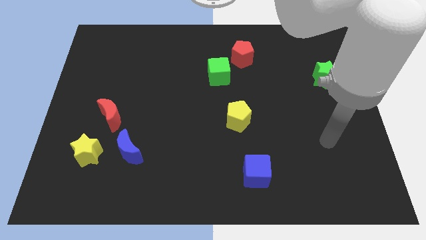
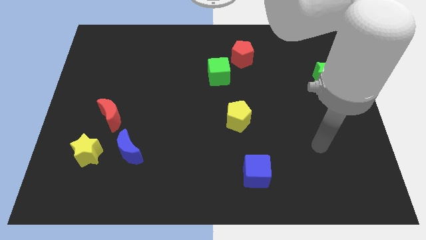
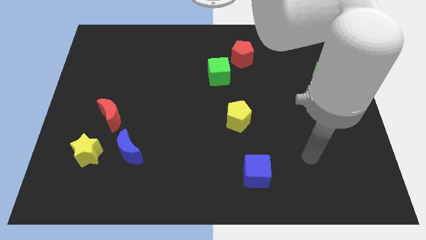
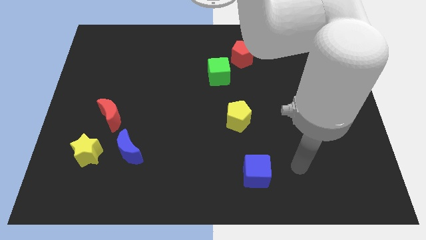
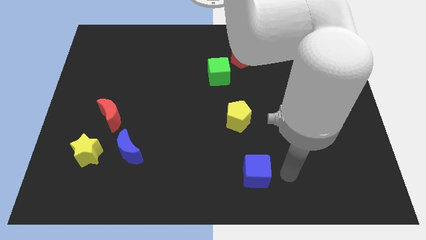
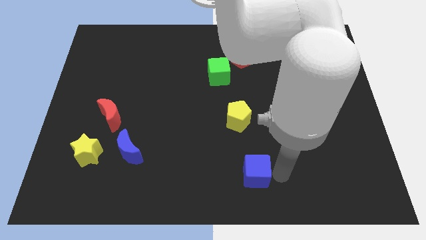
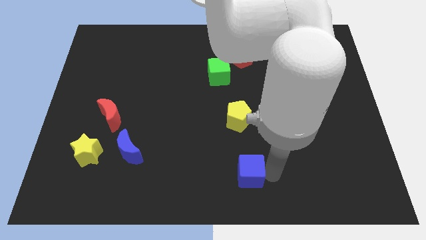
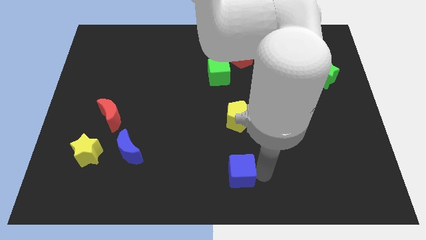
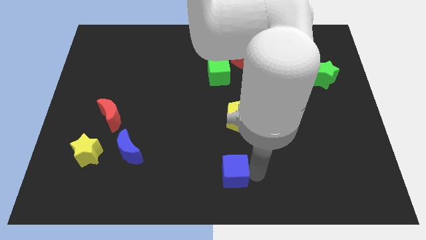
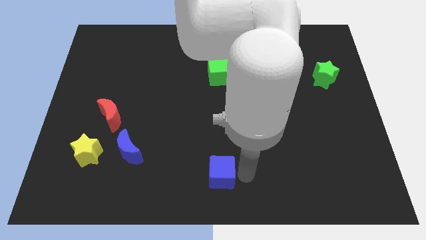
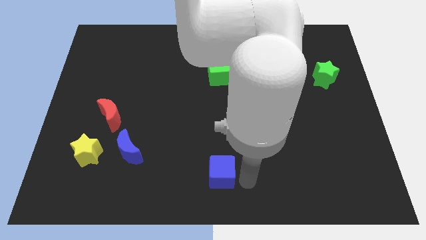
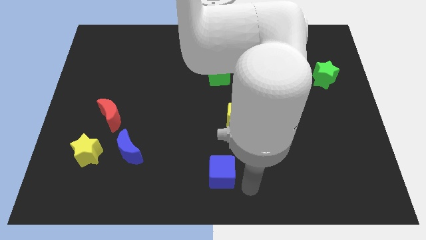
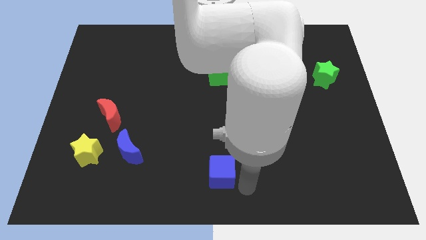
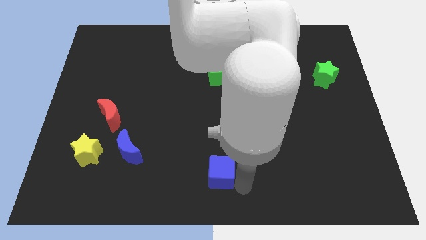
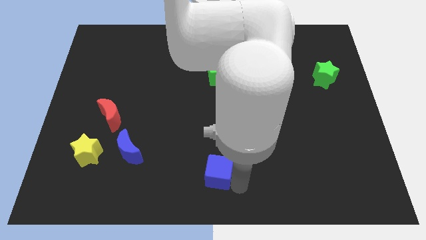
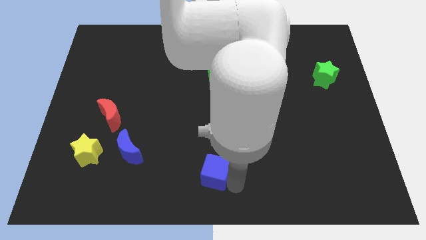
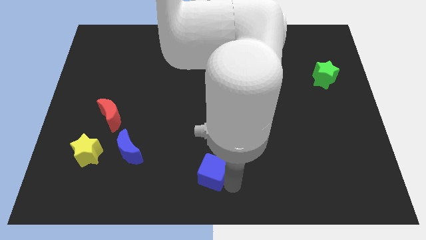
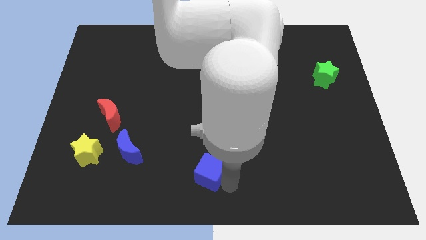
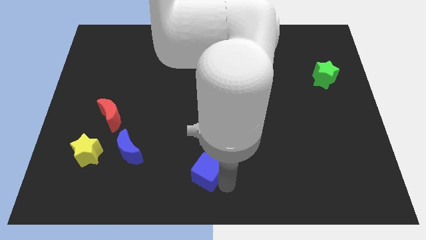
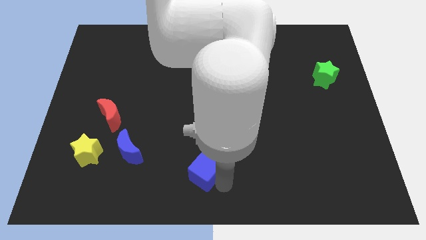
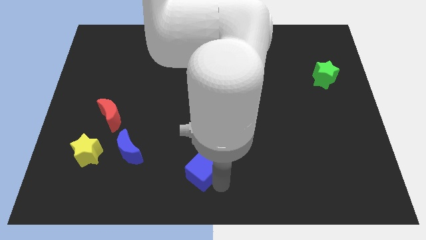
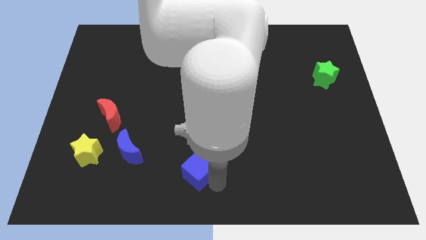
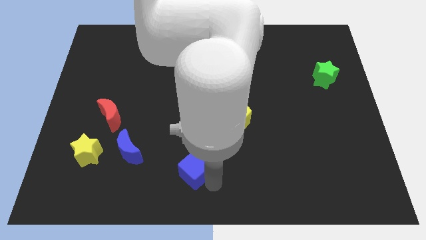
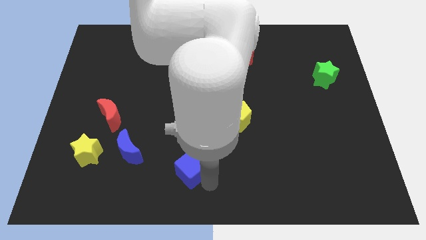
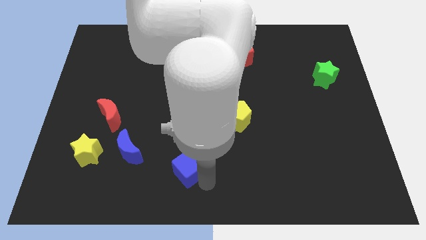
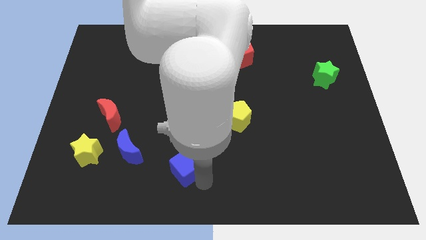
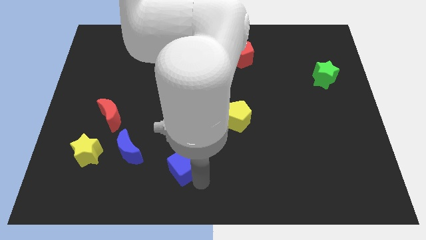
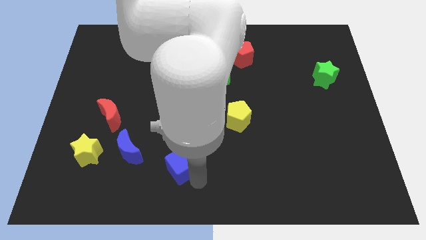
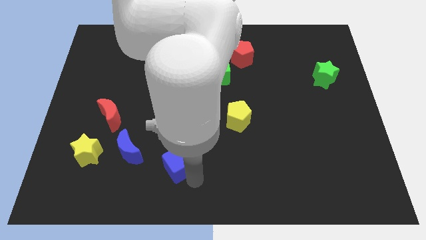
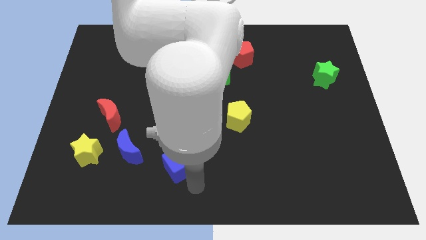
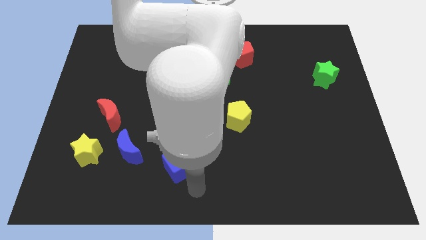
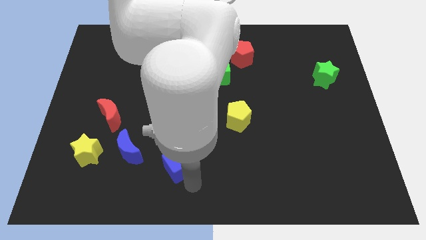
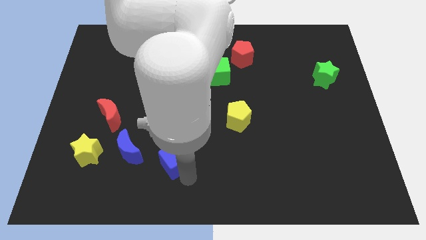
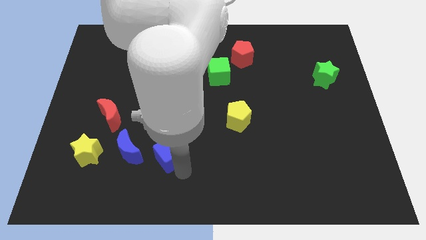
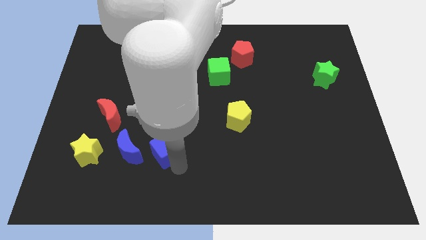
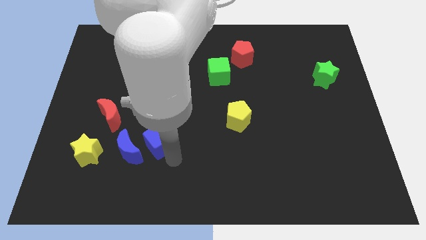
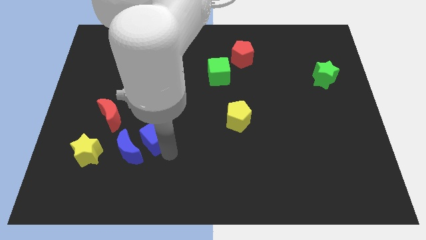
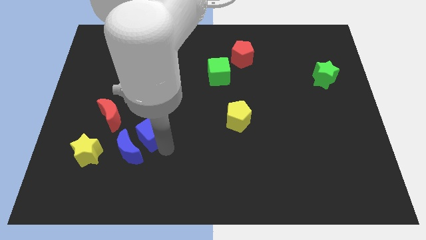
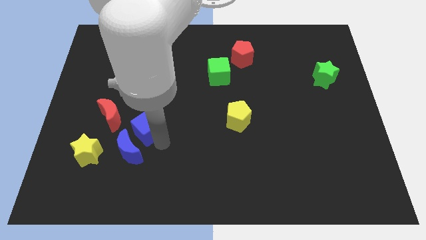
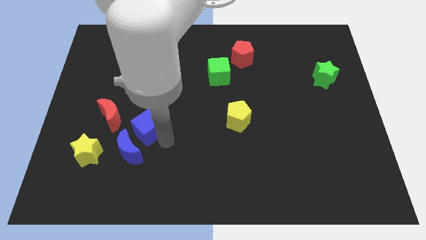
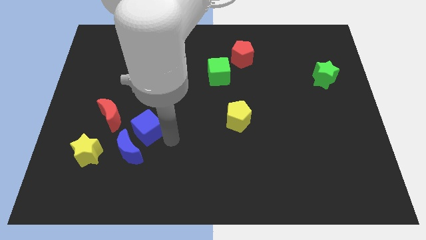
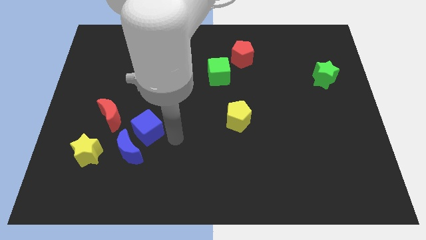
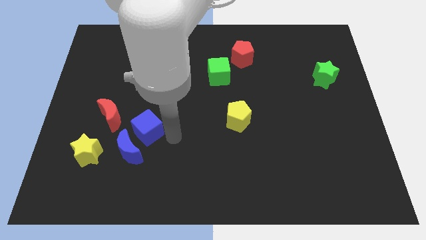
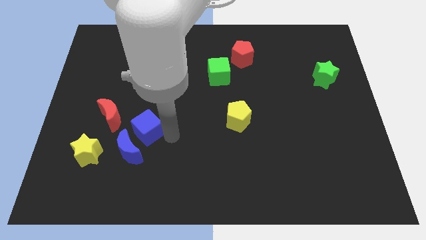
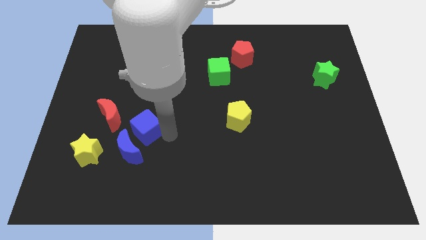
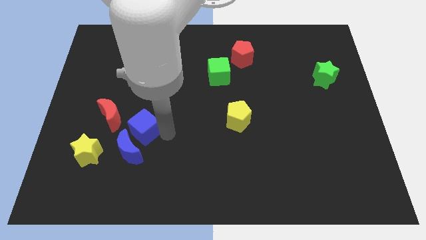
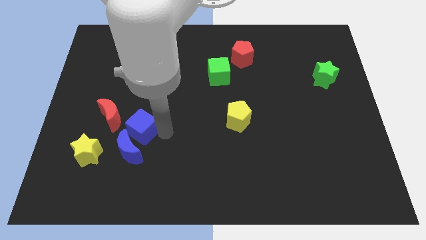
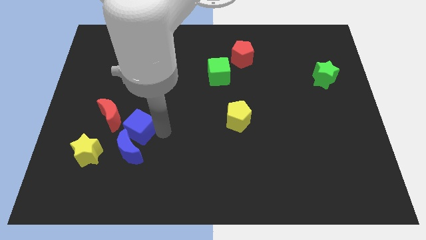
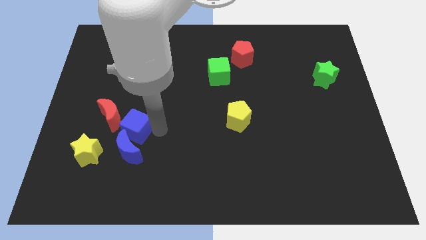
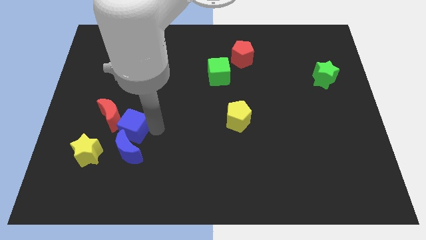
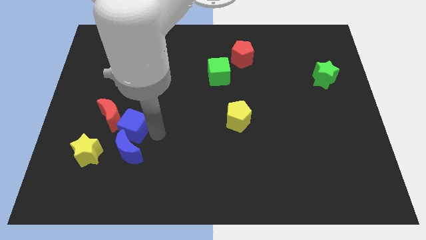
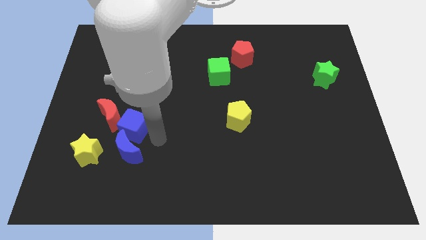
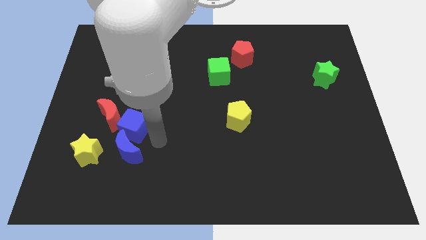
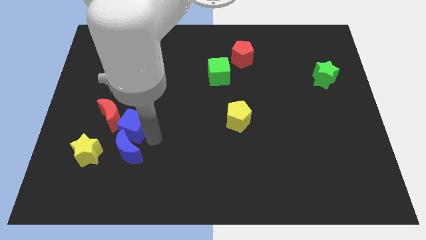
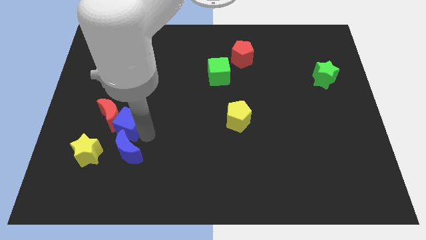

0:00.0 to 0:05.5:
put the blue cube next to the red moon

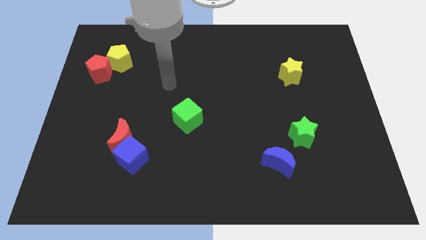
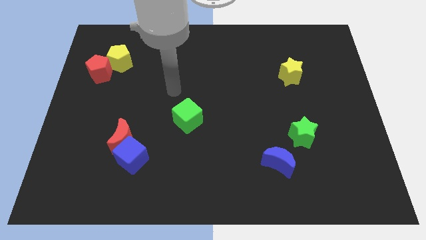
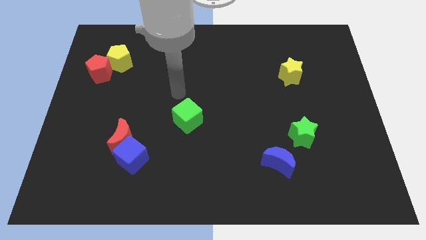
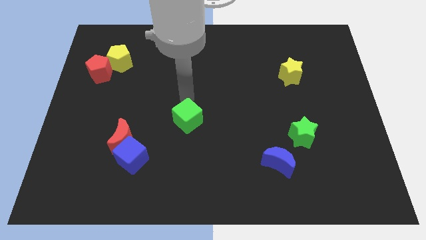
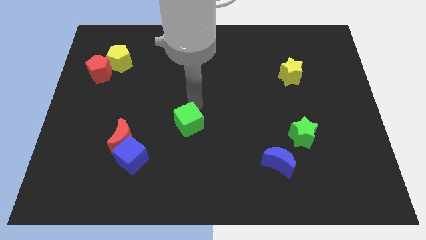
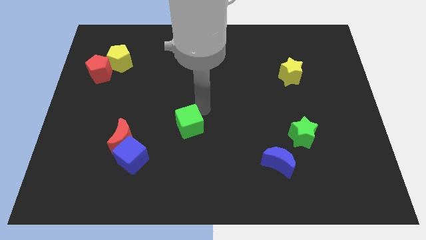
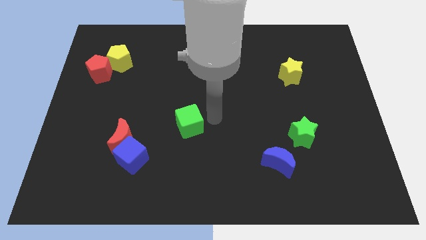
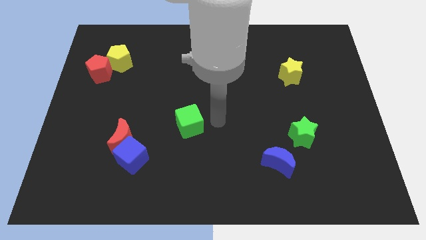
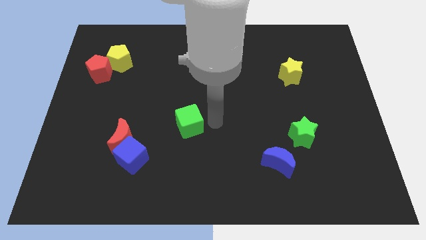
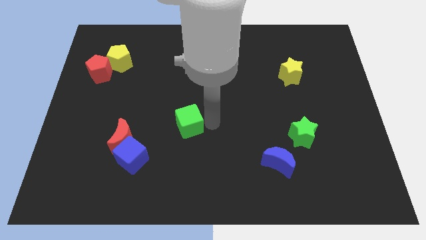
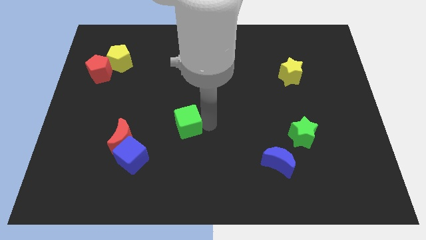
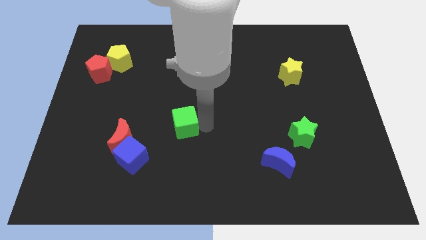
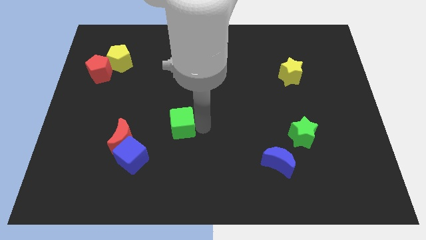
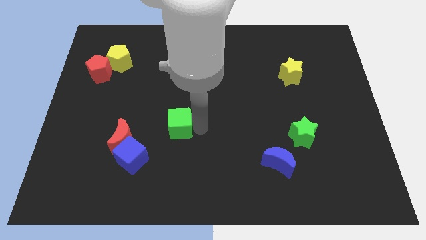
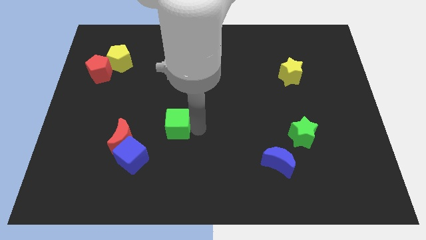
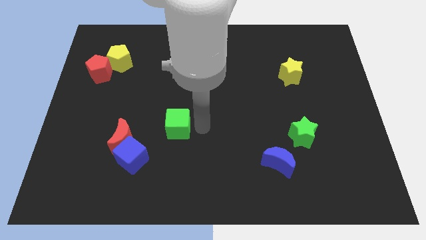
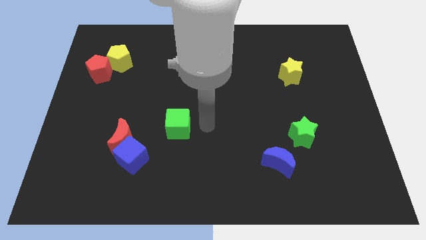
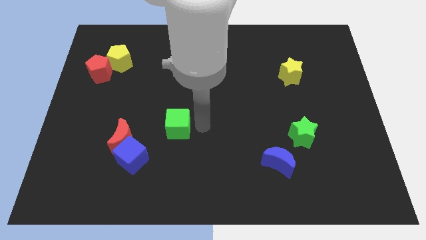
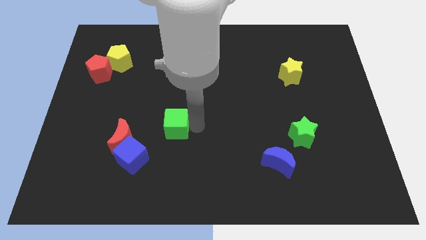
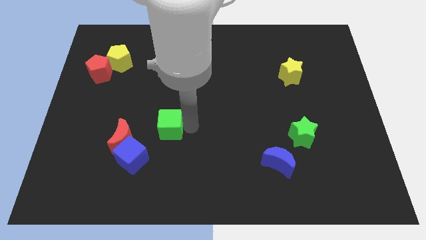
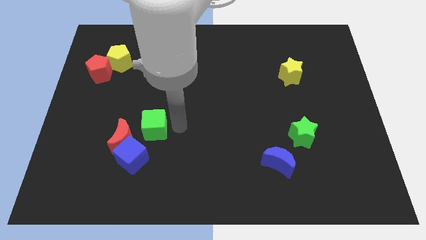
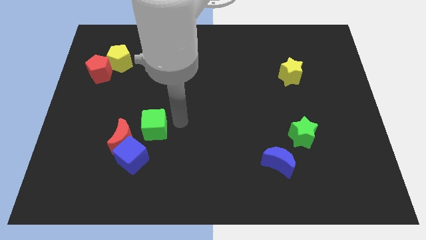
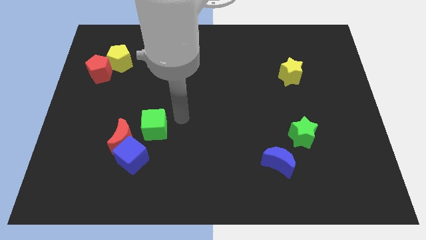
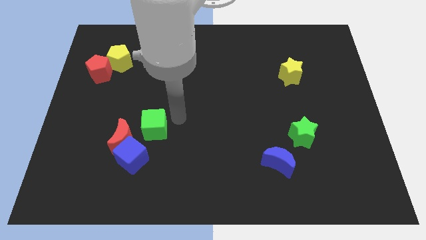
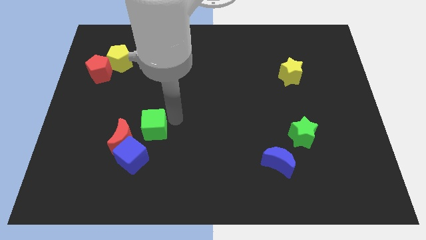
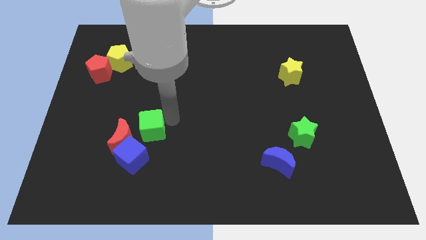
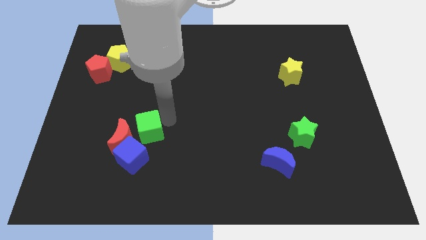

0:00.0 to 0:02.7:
push the green cube to the red moon
